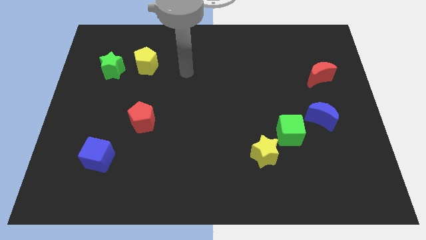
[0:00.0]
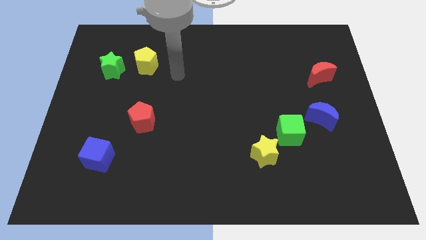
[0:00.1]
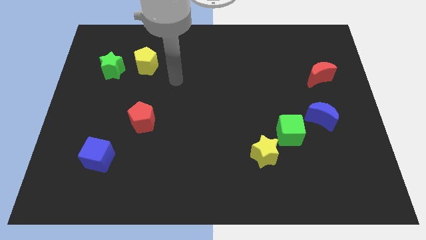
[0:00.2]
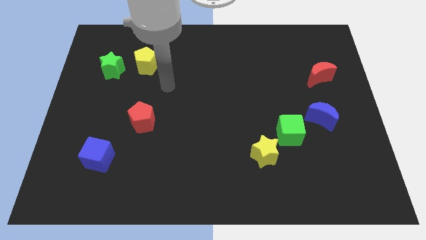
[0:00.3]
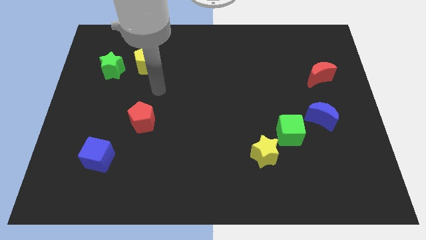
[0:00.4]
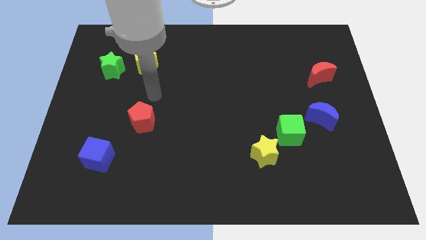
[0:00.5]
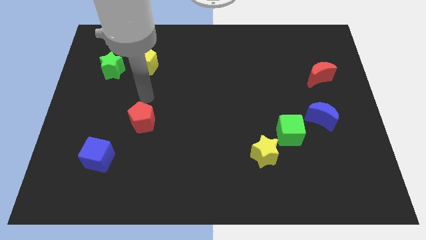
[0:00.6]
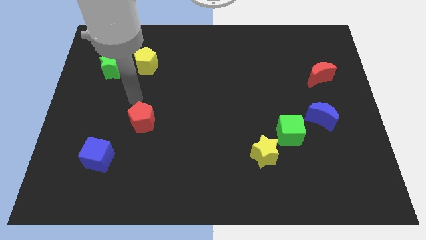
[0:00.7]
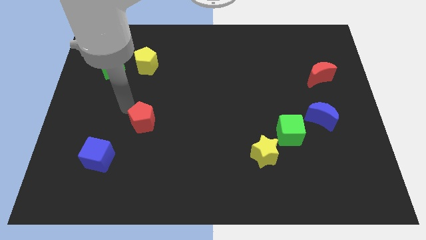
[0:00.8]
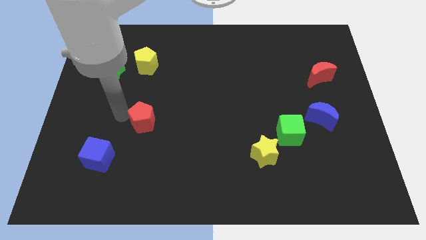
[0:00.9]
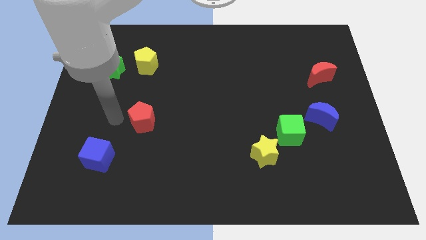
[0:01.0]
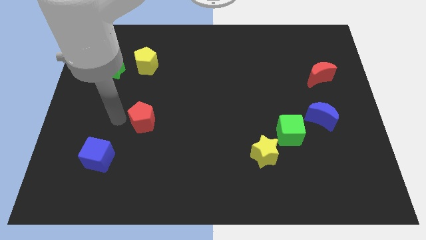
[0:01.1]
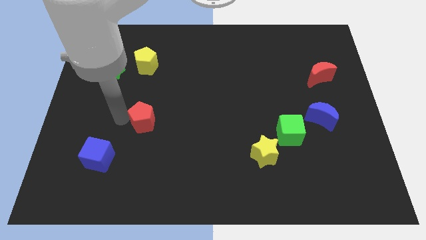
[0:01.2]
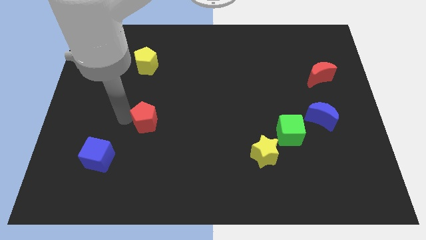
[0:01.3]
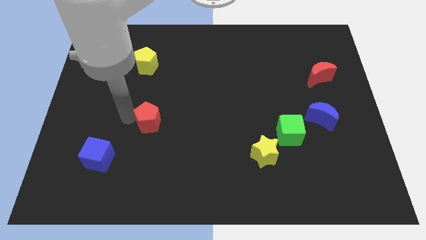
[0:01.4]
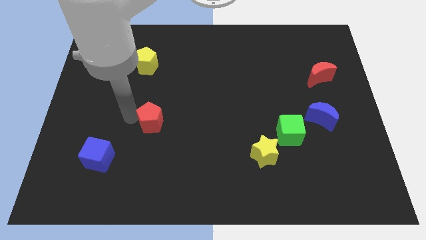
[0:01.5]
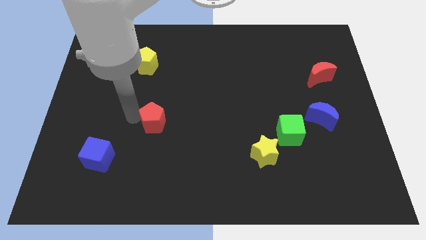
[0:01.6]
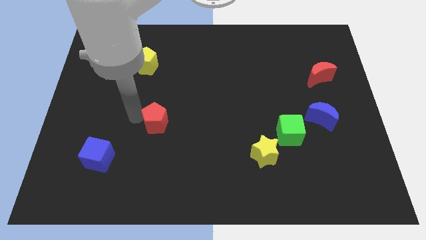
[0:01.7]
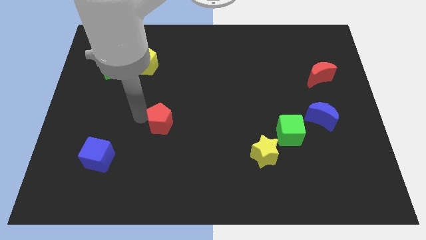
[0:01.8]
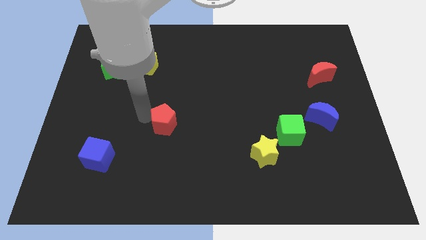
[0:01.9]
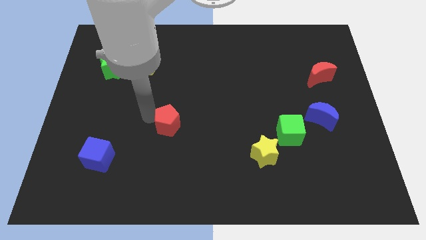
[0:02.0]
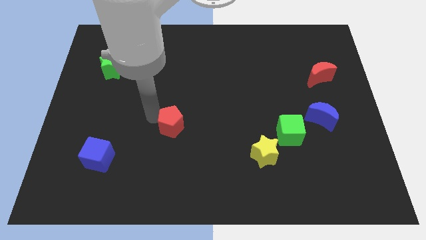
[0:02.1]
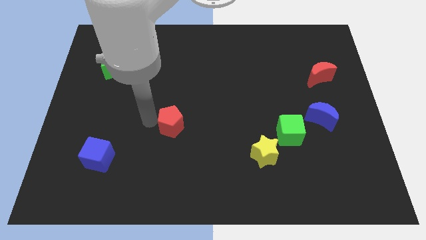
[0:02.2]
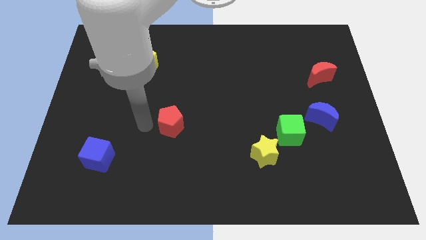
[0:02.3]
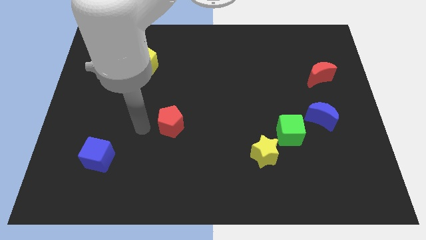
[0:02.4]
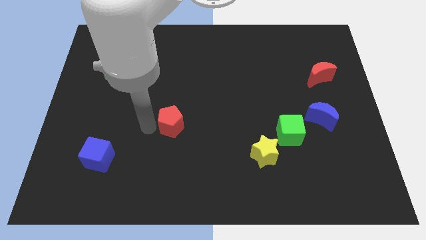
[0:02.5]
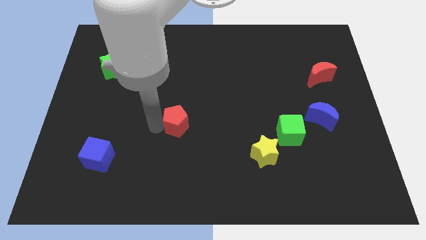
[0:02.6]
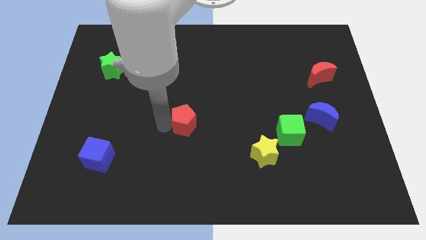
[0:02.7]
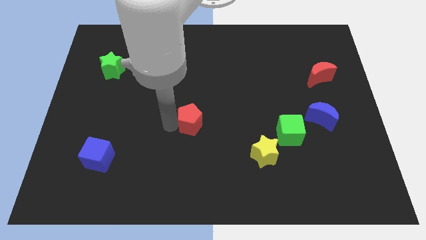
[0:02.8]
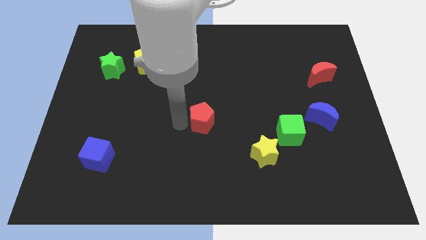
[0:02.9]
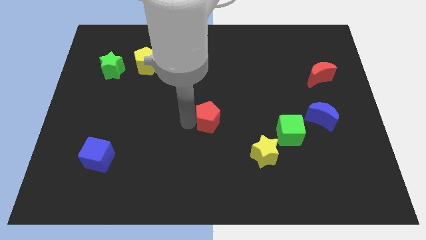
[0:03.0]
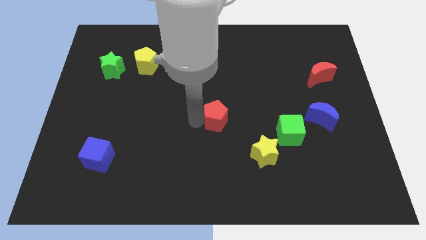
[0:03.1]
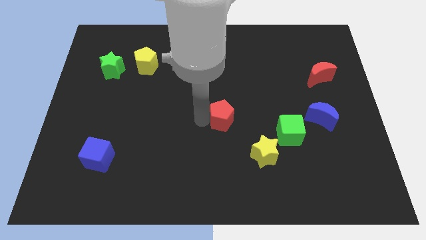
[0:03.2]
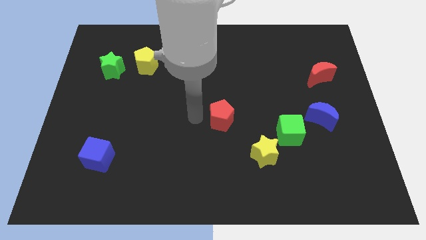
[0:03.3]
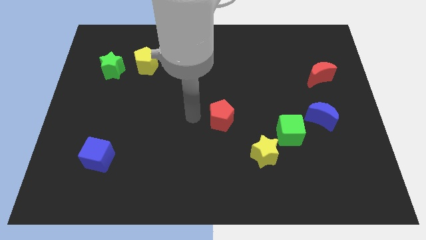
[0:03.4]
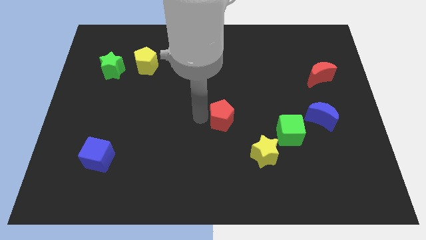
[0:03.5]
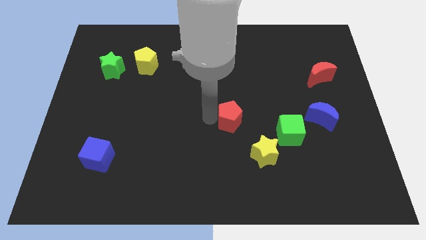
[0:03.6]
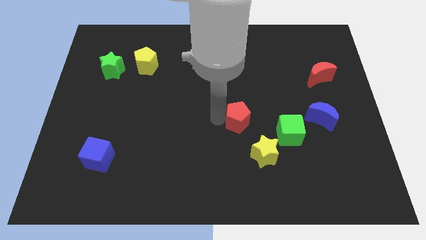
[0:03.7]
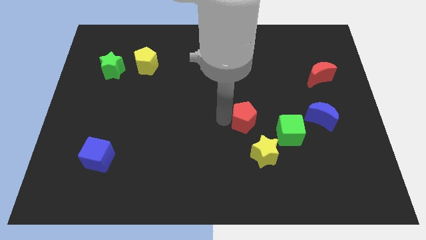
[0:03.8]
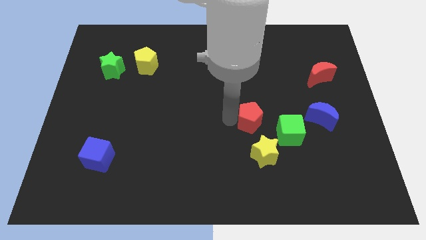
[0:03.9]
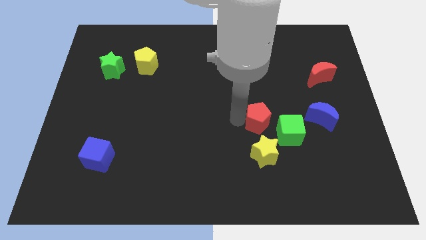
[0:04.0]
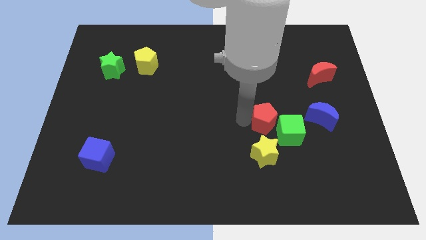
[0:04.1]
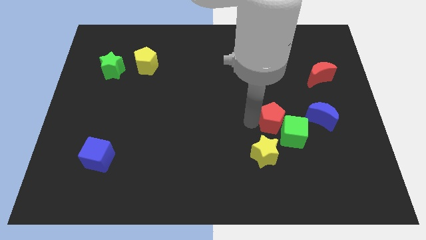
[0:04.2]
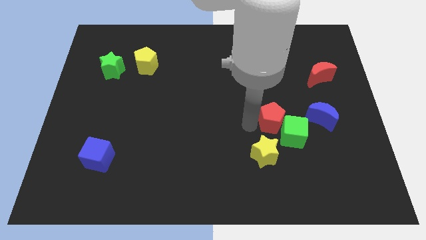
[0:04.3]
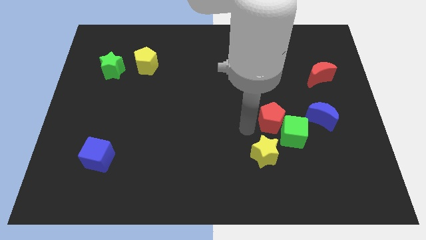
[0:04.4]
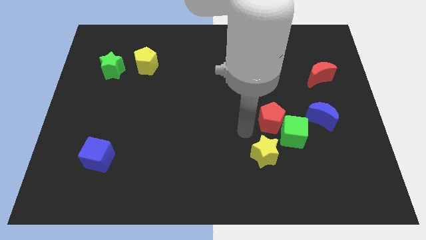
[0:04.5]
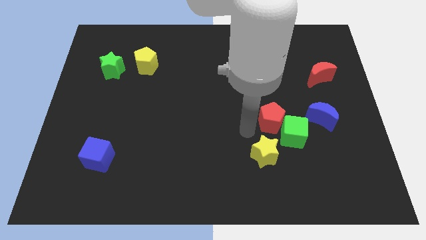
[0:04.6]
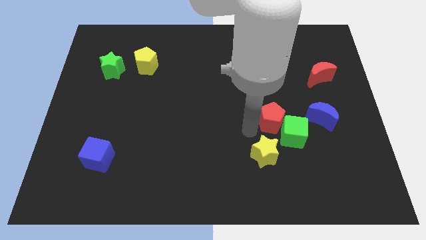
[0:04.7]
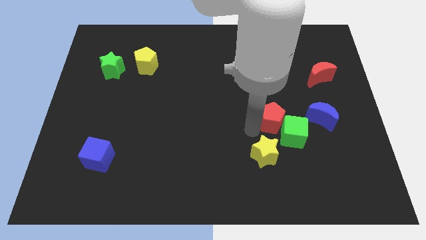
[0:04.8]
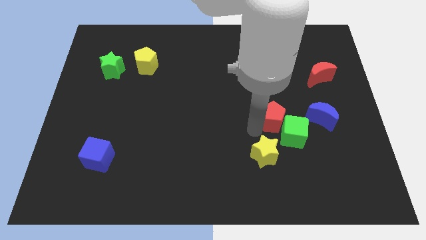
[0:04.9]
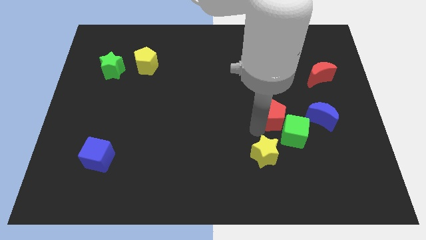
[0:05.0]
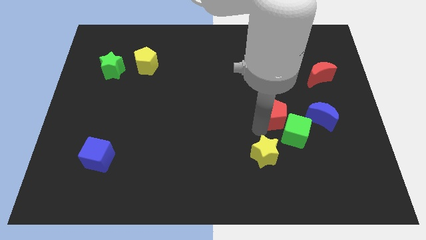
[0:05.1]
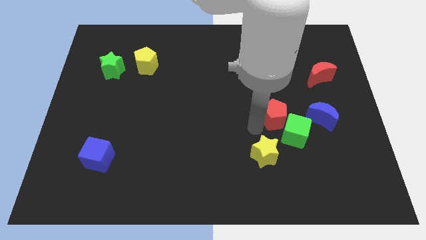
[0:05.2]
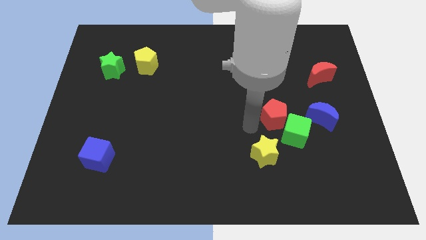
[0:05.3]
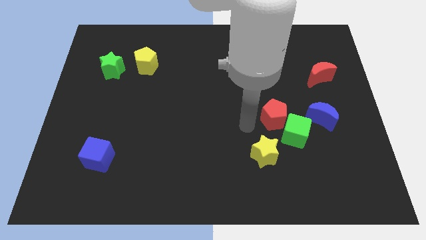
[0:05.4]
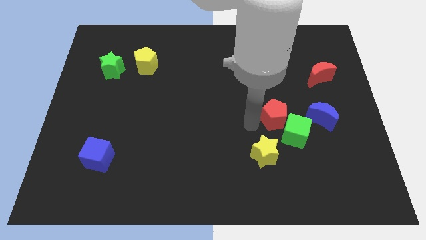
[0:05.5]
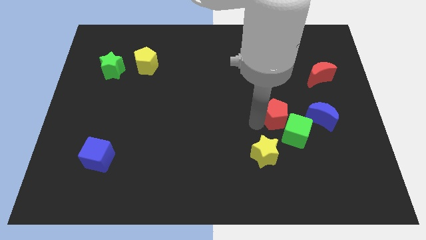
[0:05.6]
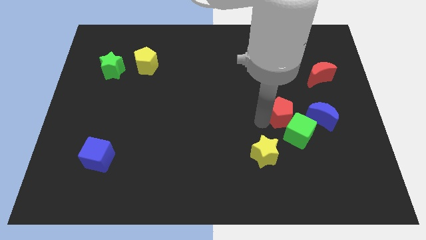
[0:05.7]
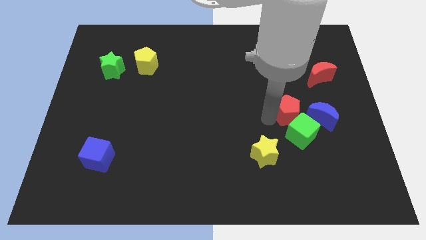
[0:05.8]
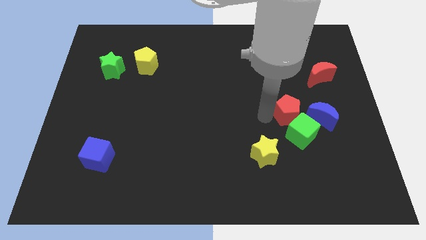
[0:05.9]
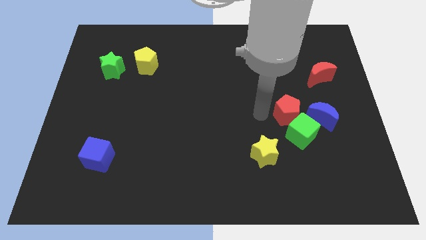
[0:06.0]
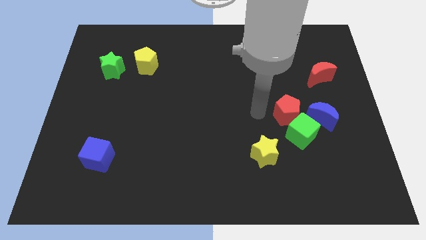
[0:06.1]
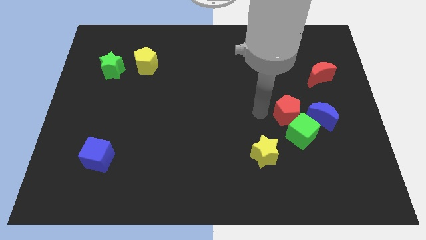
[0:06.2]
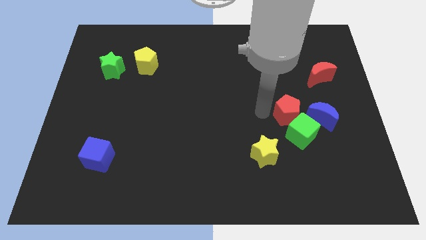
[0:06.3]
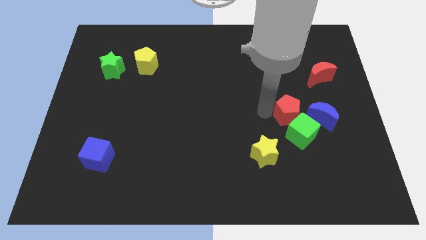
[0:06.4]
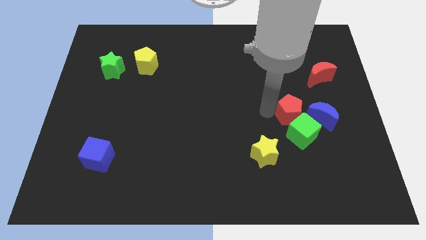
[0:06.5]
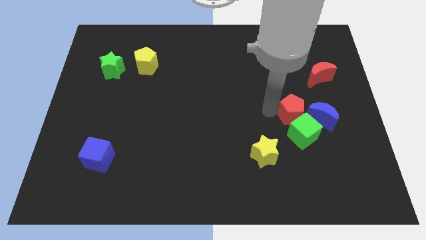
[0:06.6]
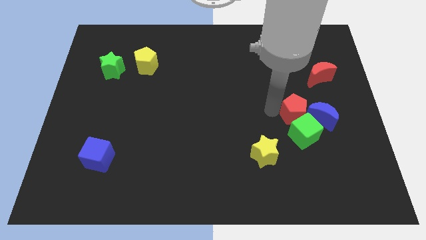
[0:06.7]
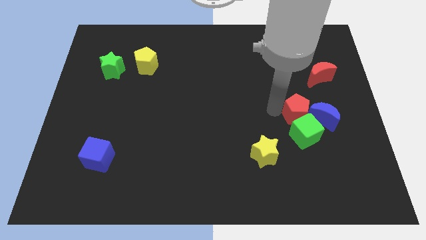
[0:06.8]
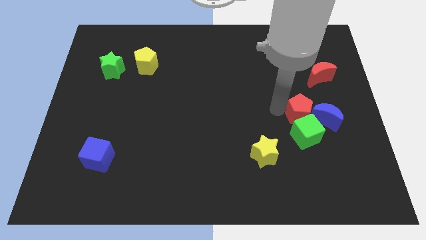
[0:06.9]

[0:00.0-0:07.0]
put the red pentagon next to the blue moon
